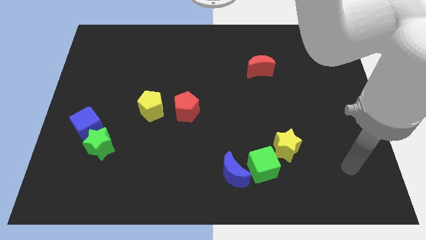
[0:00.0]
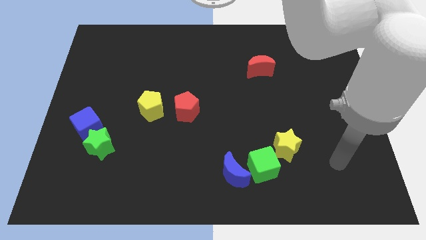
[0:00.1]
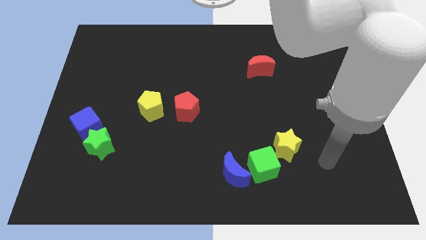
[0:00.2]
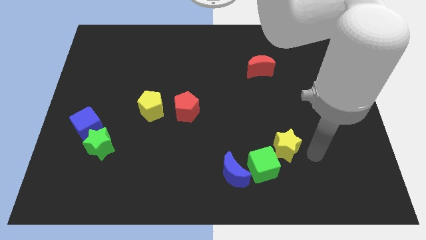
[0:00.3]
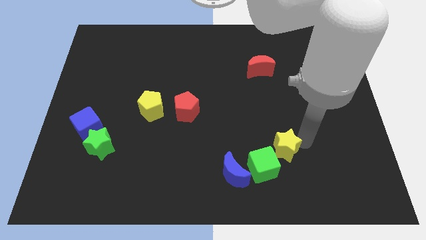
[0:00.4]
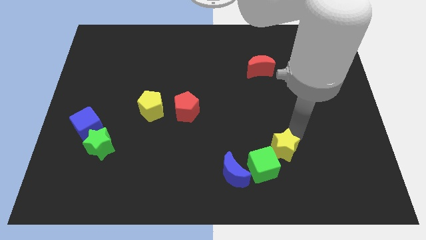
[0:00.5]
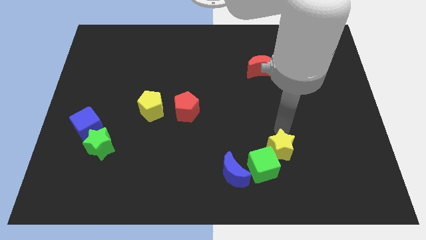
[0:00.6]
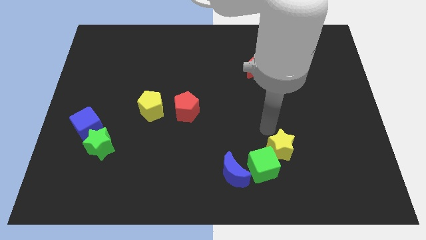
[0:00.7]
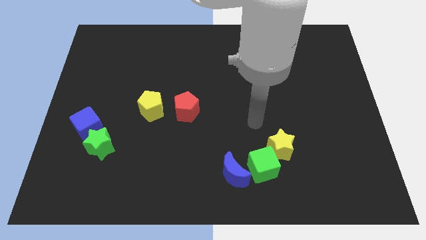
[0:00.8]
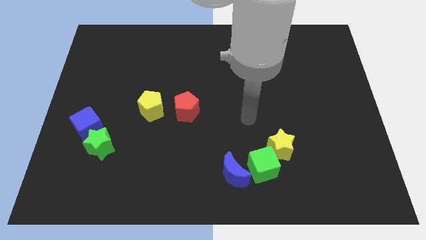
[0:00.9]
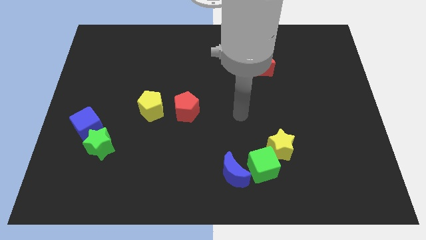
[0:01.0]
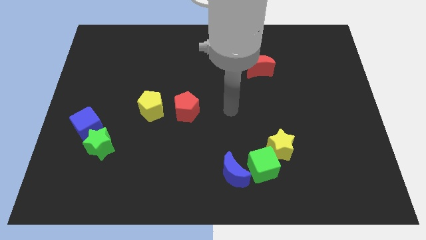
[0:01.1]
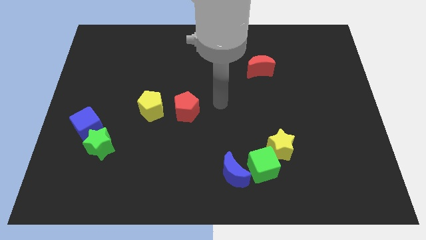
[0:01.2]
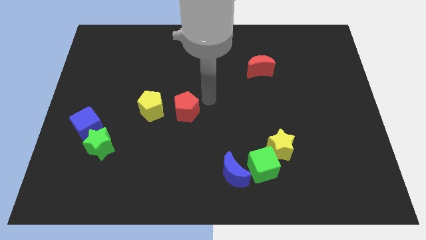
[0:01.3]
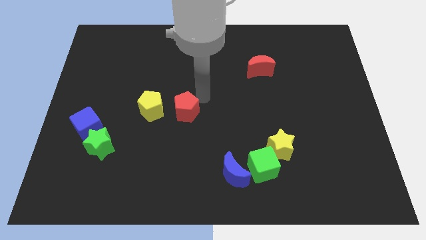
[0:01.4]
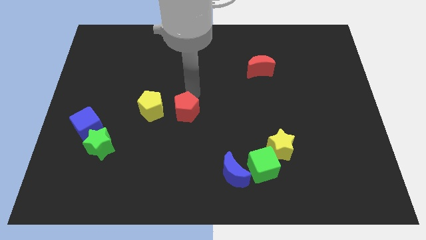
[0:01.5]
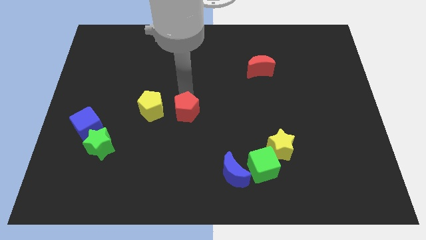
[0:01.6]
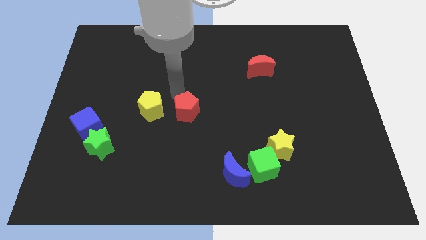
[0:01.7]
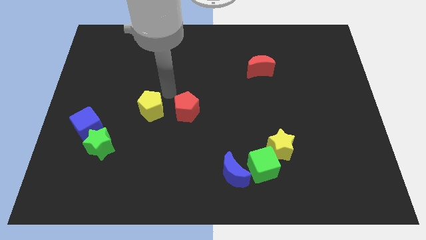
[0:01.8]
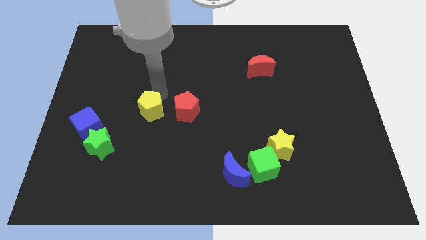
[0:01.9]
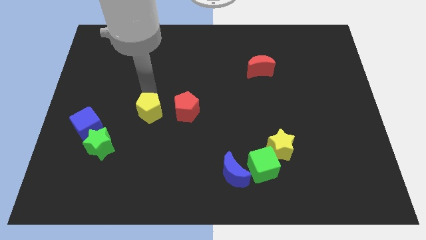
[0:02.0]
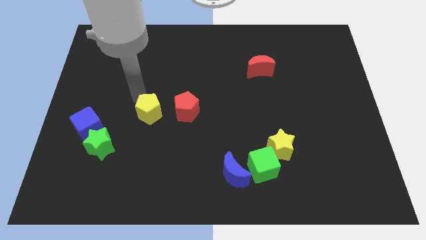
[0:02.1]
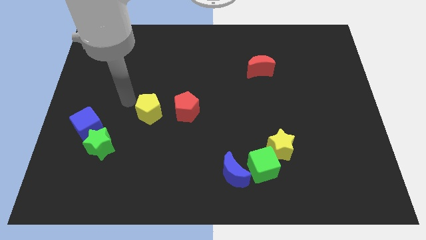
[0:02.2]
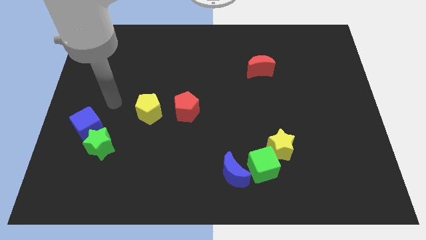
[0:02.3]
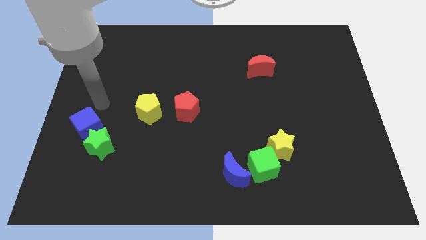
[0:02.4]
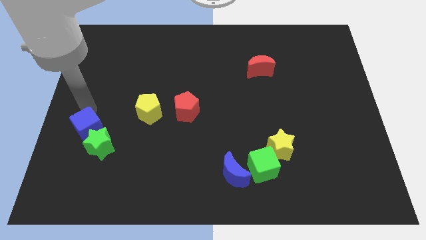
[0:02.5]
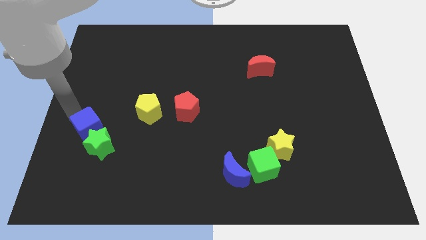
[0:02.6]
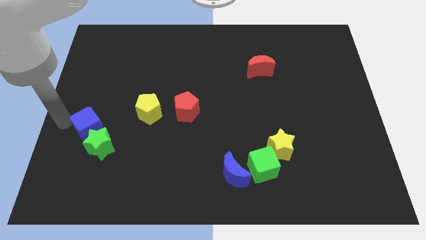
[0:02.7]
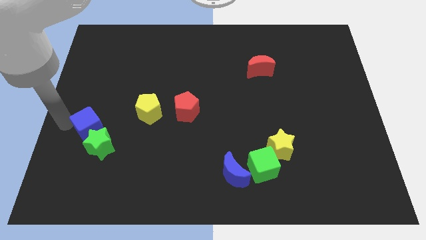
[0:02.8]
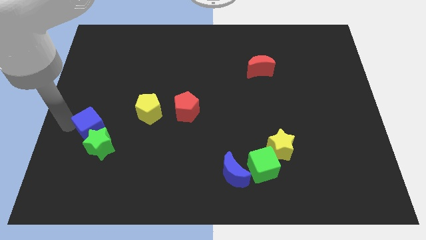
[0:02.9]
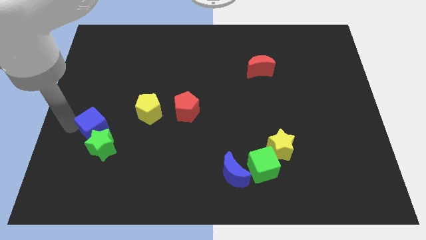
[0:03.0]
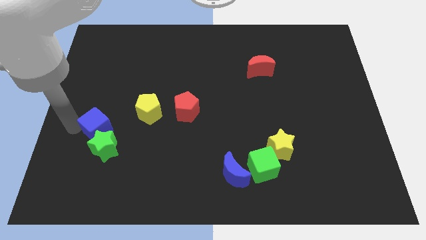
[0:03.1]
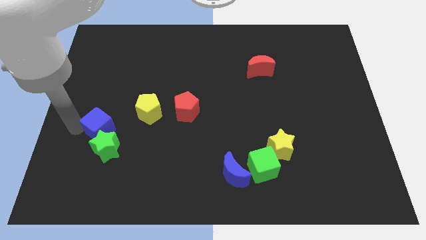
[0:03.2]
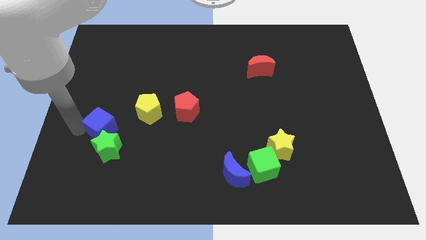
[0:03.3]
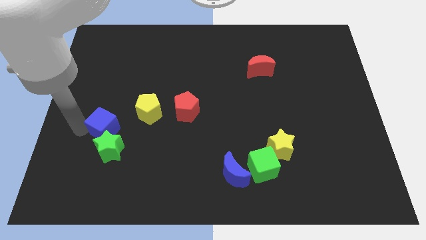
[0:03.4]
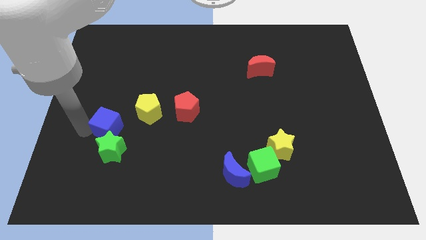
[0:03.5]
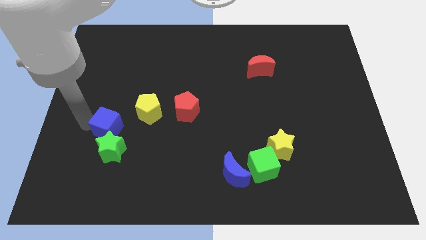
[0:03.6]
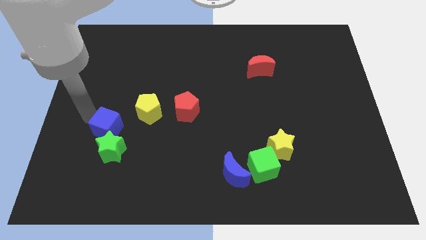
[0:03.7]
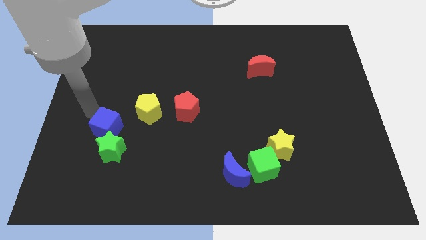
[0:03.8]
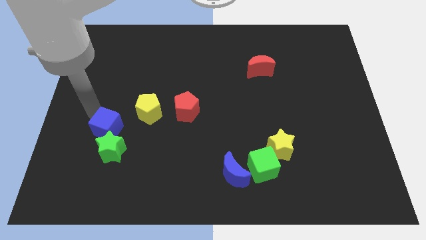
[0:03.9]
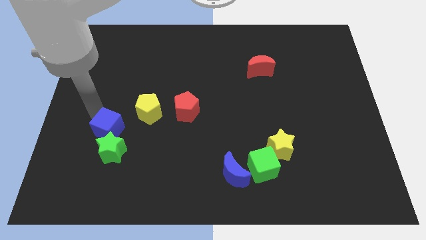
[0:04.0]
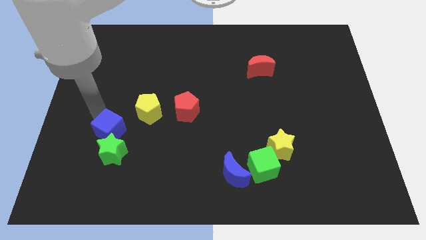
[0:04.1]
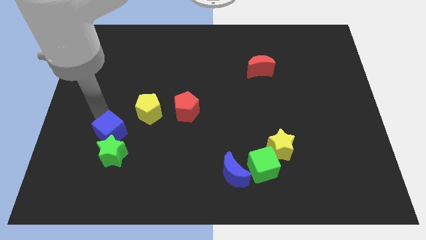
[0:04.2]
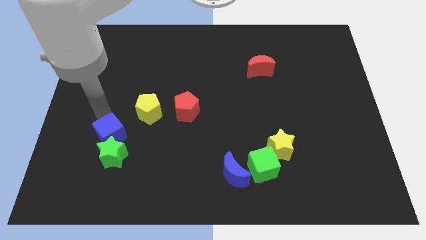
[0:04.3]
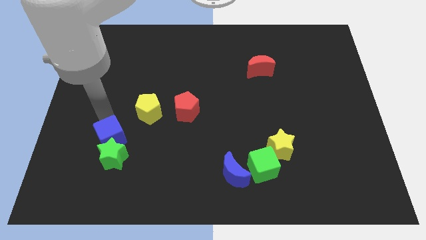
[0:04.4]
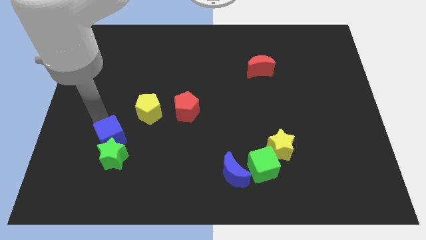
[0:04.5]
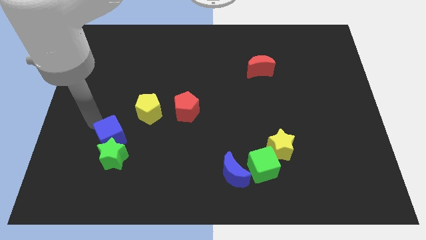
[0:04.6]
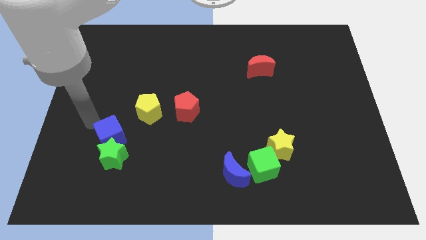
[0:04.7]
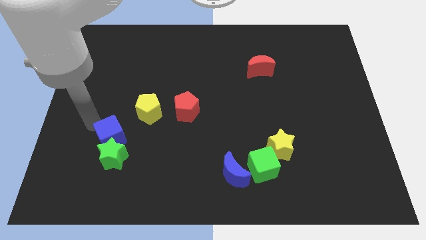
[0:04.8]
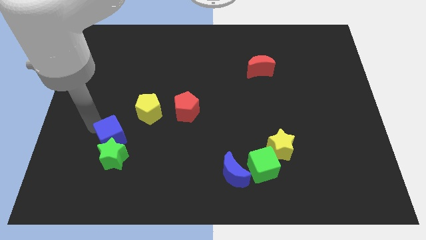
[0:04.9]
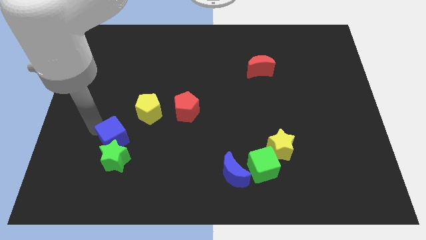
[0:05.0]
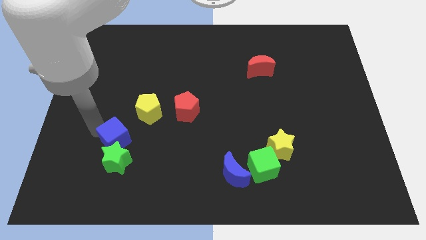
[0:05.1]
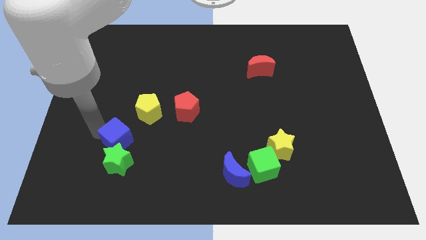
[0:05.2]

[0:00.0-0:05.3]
slightly move the blue cube diagonally downwards and to the right

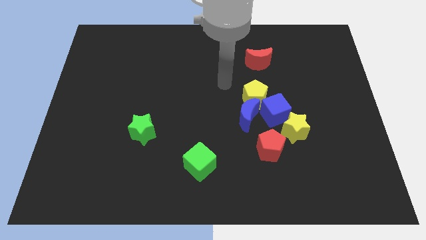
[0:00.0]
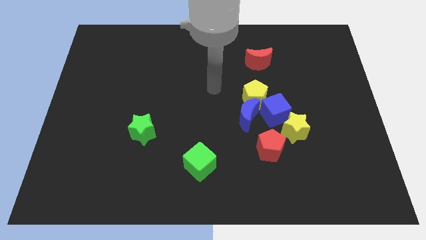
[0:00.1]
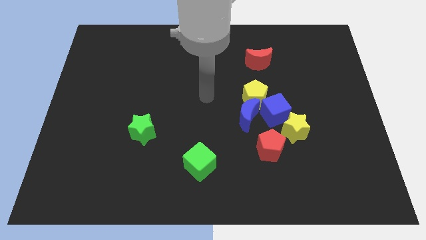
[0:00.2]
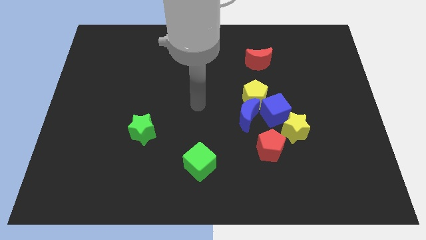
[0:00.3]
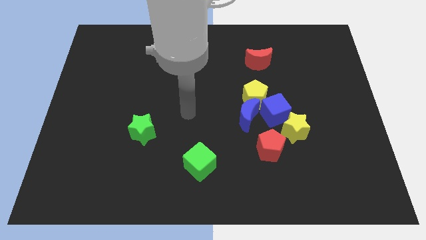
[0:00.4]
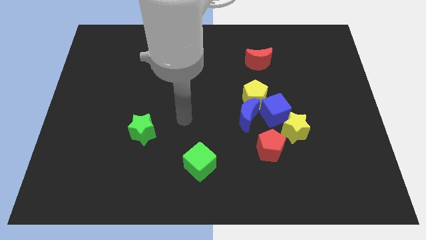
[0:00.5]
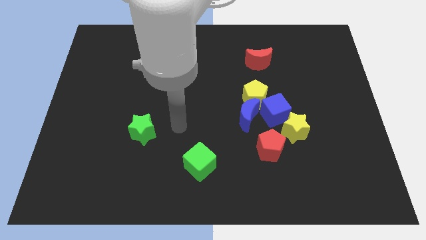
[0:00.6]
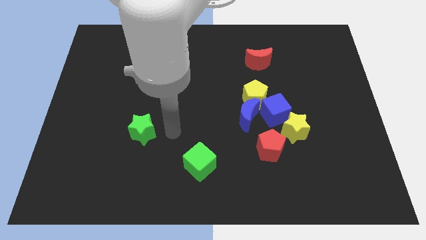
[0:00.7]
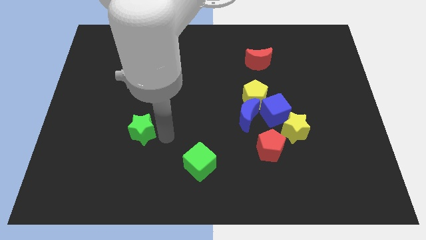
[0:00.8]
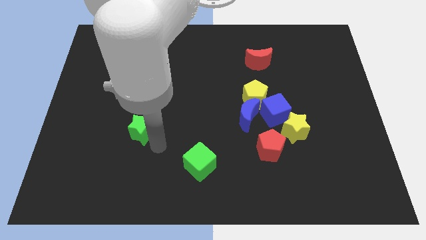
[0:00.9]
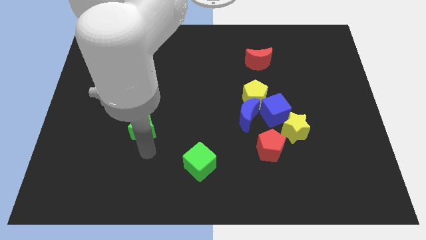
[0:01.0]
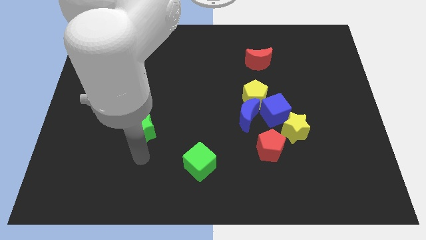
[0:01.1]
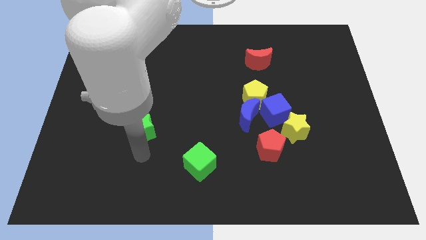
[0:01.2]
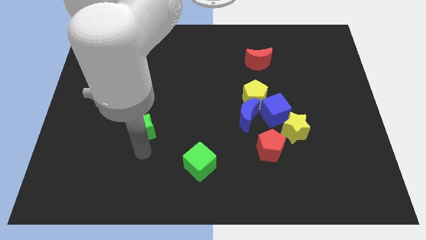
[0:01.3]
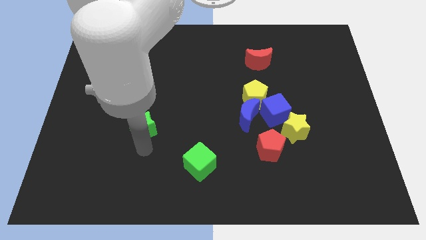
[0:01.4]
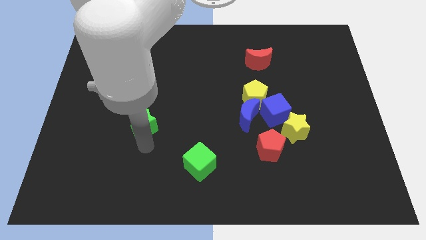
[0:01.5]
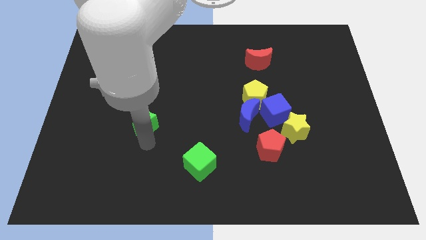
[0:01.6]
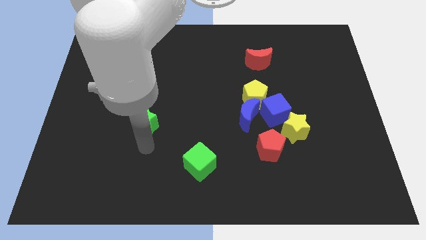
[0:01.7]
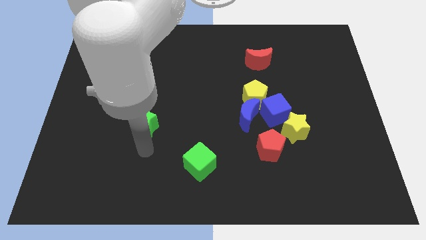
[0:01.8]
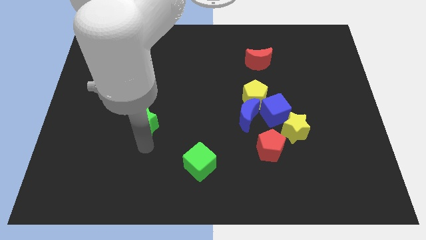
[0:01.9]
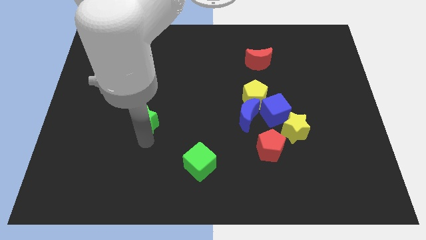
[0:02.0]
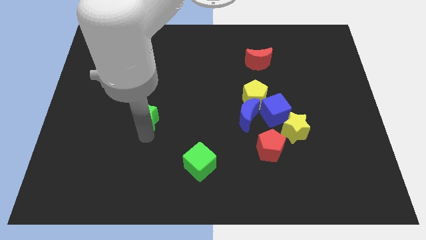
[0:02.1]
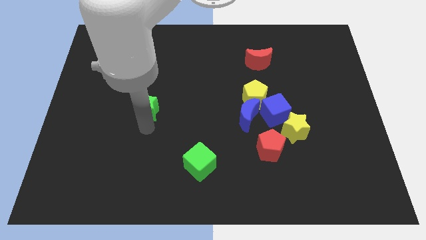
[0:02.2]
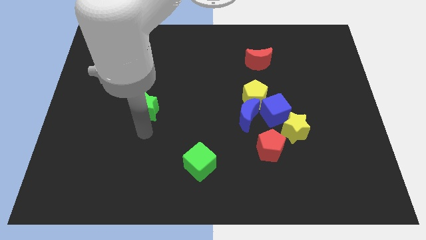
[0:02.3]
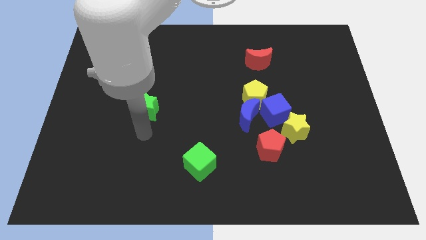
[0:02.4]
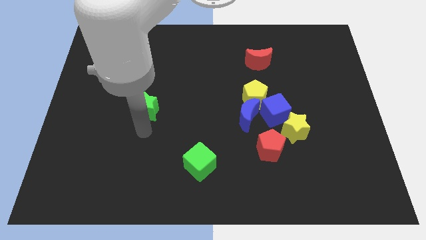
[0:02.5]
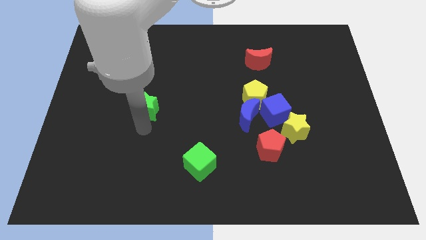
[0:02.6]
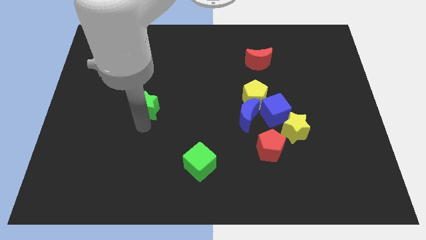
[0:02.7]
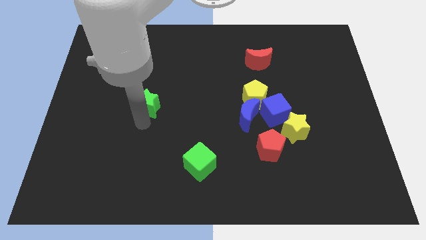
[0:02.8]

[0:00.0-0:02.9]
slightly push the green star upwards
